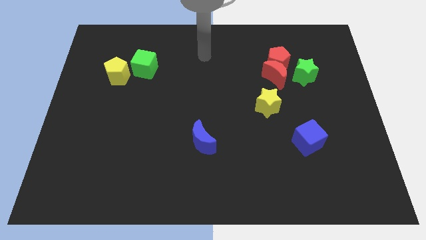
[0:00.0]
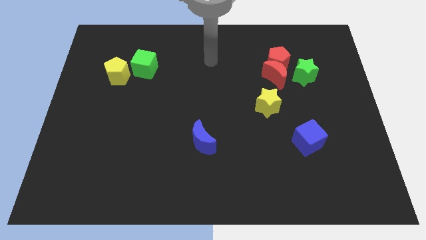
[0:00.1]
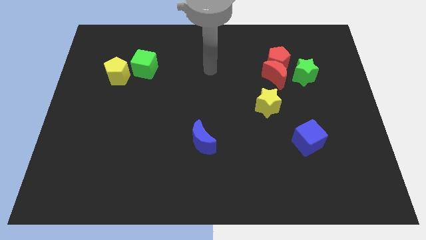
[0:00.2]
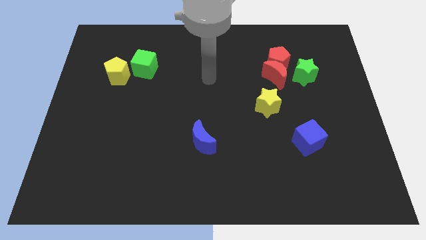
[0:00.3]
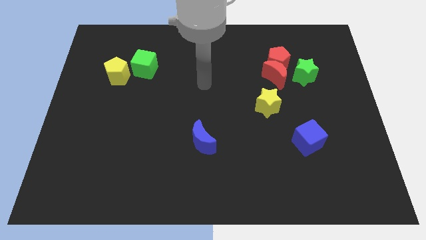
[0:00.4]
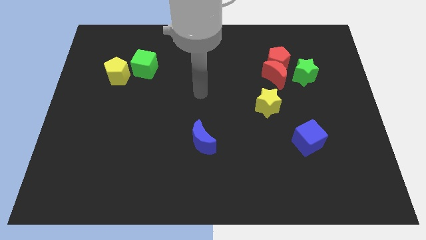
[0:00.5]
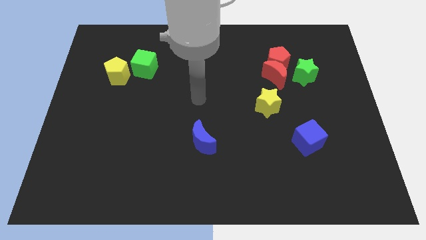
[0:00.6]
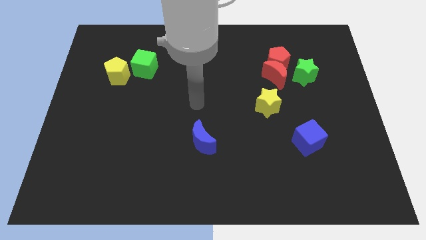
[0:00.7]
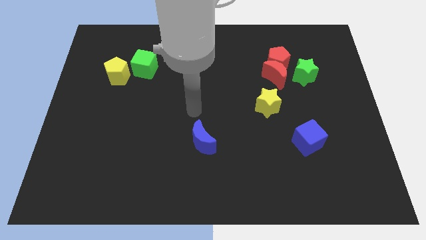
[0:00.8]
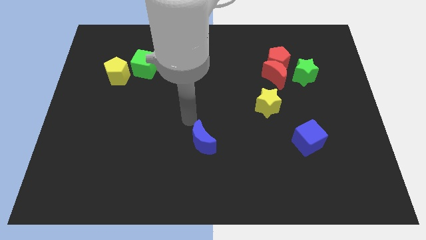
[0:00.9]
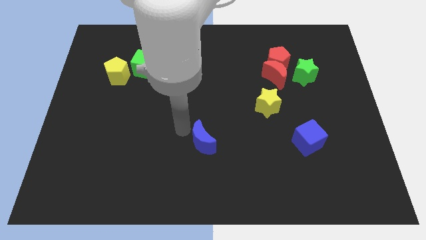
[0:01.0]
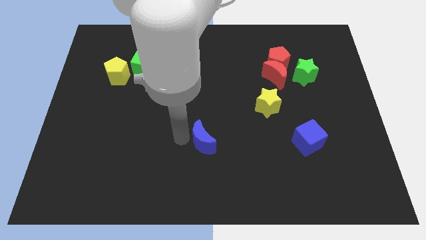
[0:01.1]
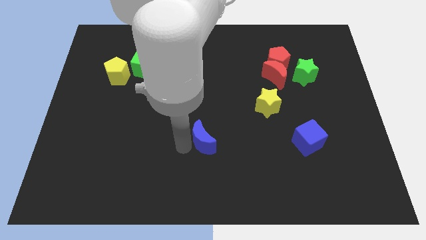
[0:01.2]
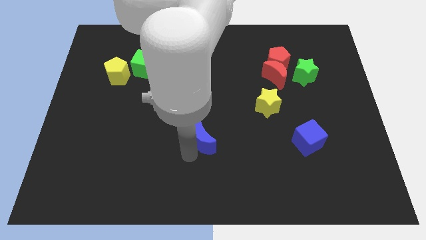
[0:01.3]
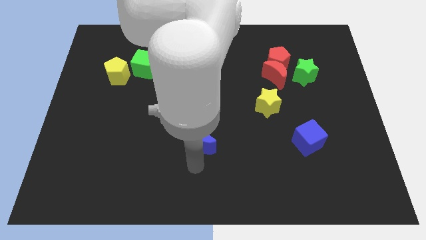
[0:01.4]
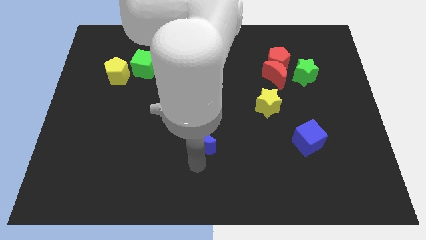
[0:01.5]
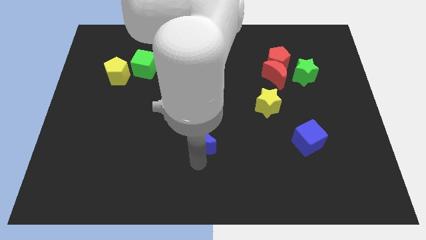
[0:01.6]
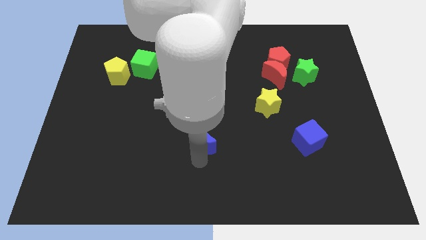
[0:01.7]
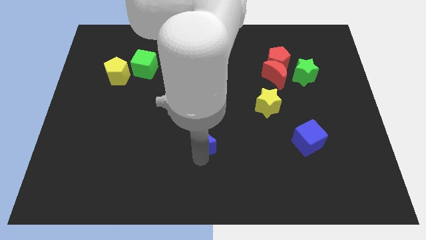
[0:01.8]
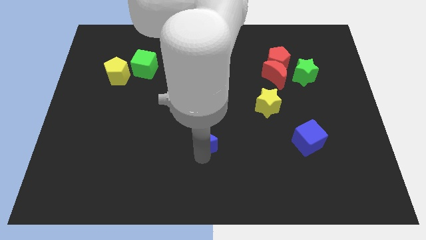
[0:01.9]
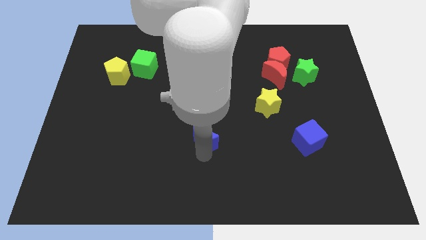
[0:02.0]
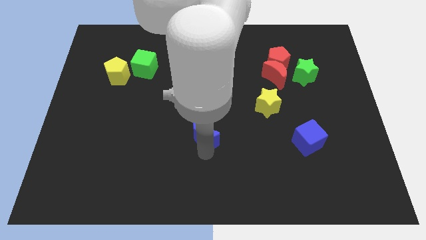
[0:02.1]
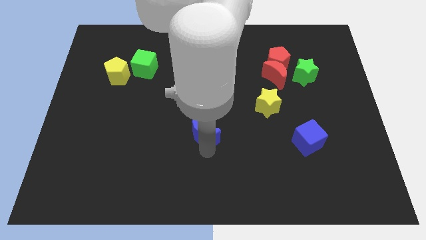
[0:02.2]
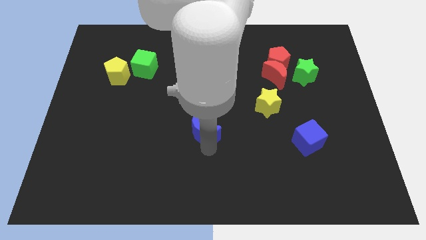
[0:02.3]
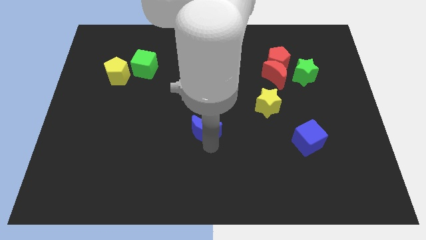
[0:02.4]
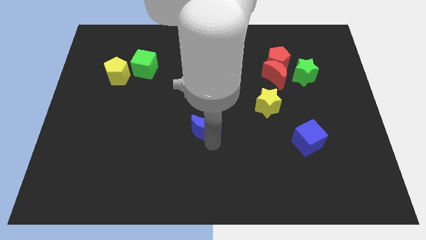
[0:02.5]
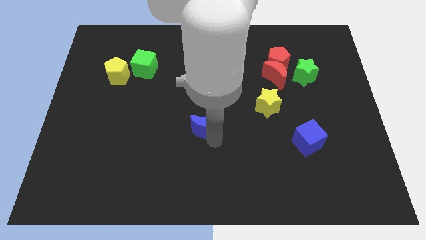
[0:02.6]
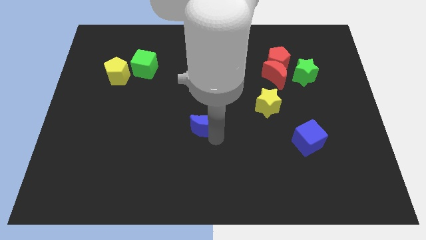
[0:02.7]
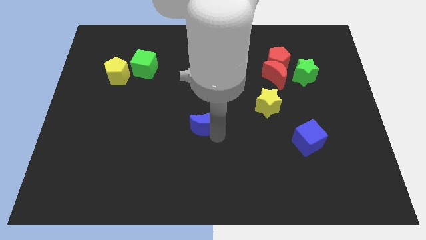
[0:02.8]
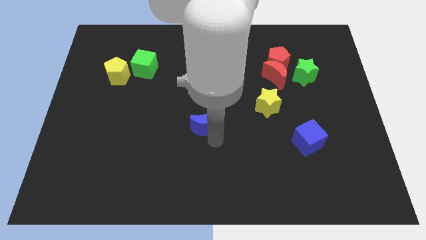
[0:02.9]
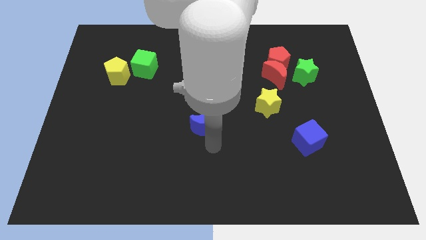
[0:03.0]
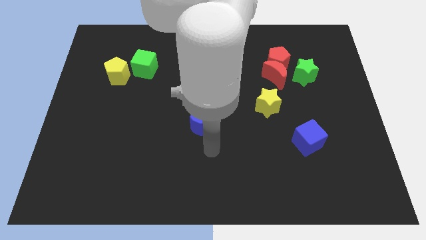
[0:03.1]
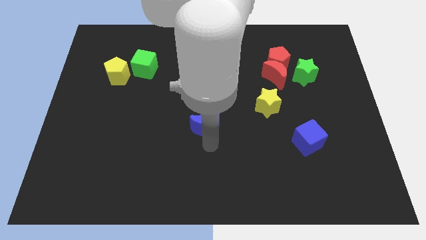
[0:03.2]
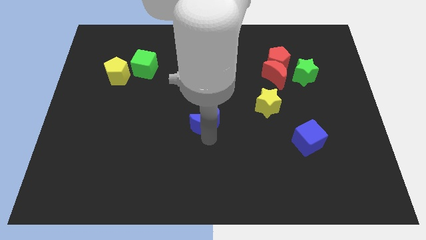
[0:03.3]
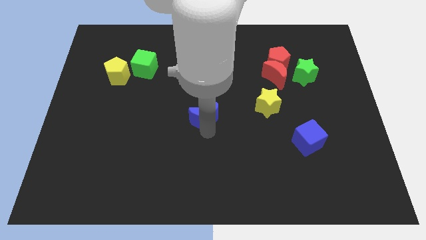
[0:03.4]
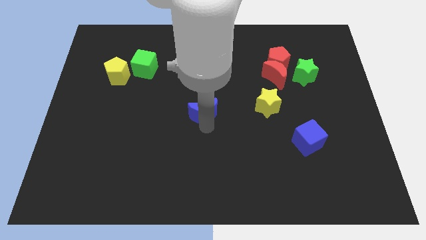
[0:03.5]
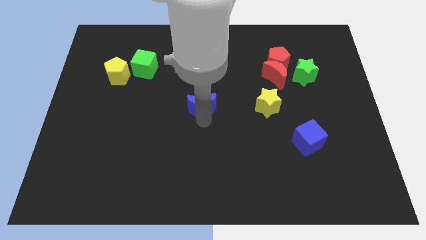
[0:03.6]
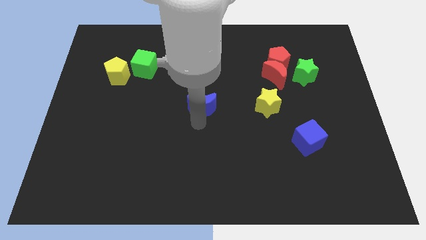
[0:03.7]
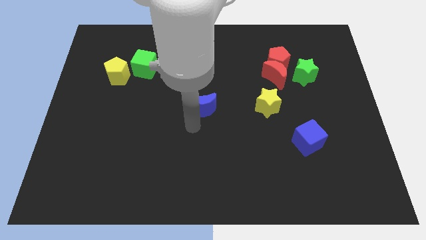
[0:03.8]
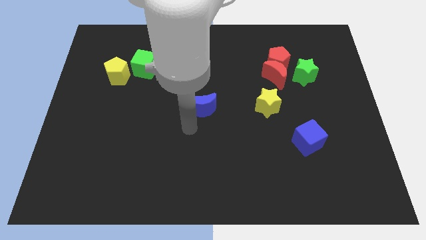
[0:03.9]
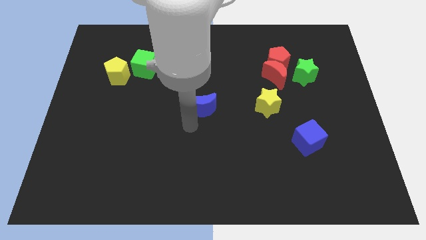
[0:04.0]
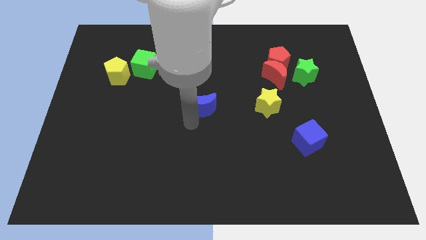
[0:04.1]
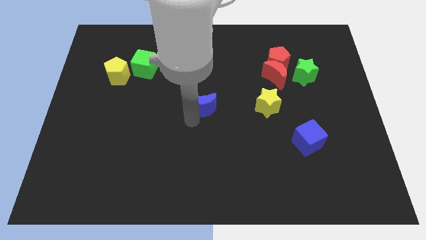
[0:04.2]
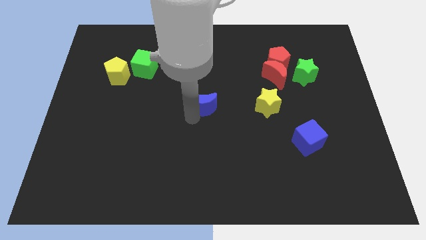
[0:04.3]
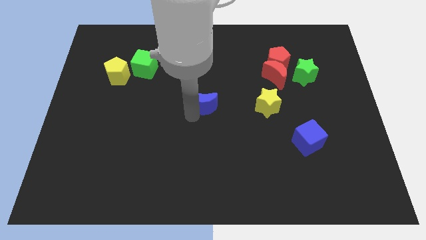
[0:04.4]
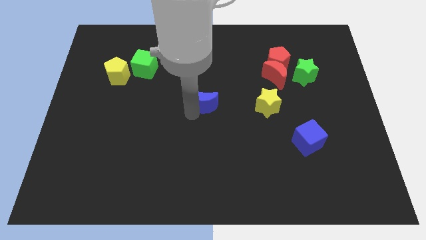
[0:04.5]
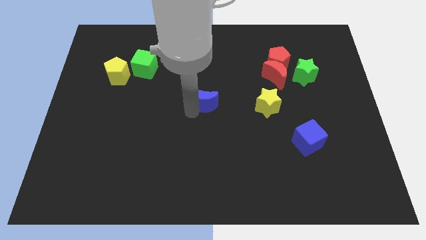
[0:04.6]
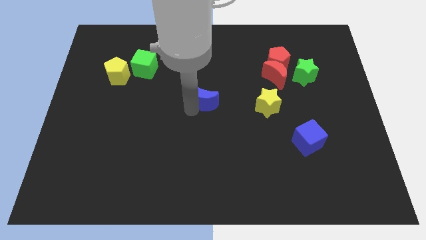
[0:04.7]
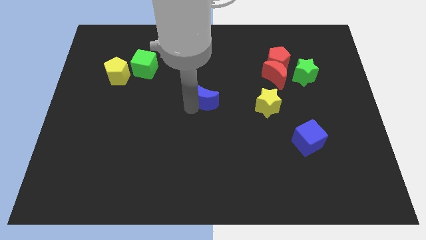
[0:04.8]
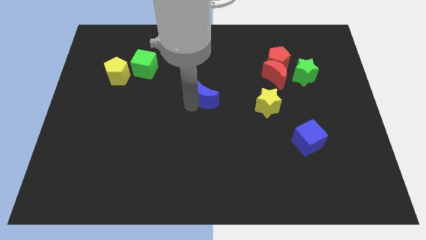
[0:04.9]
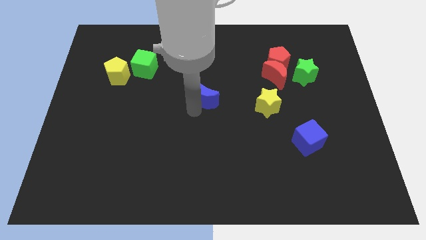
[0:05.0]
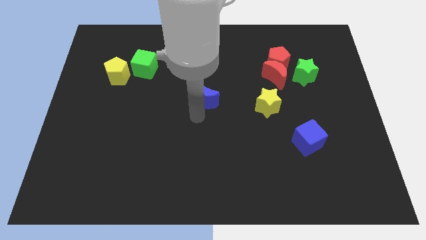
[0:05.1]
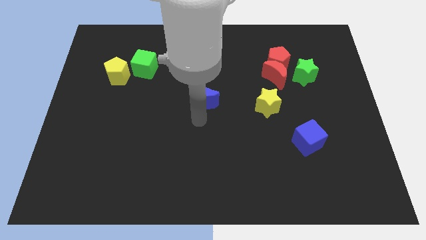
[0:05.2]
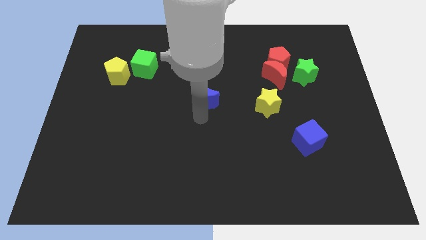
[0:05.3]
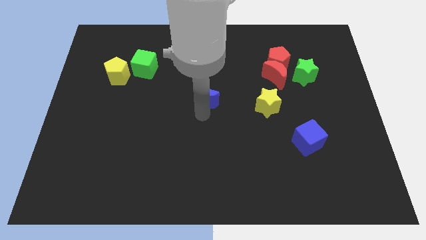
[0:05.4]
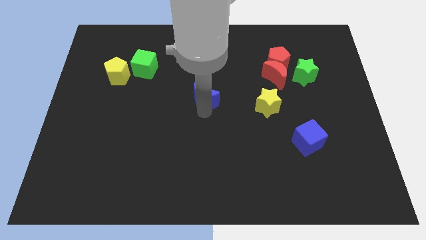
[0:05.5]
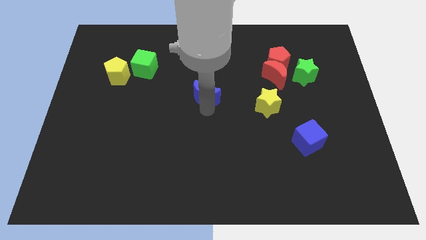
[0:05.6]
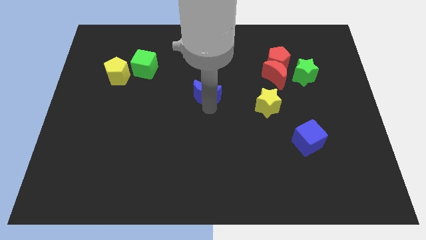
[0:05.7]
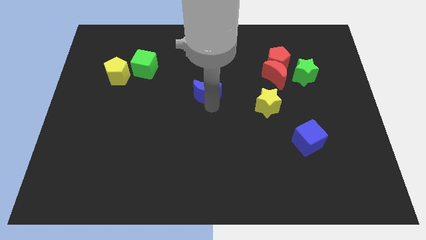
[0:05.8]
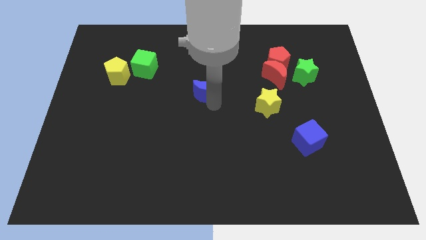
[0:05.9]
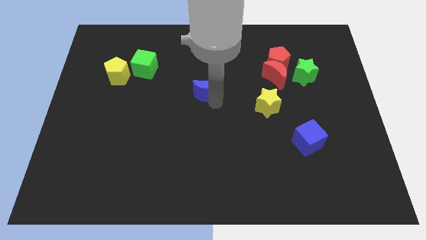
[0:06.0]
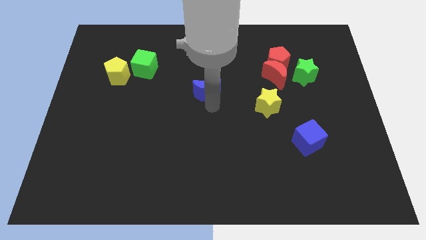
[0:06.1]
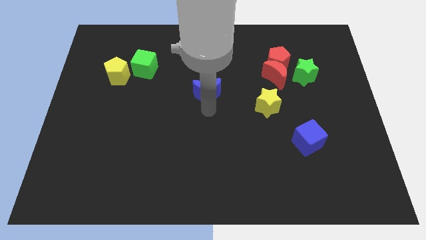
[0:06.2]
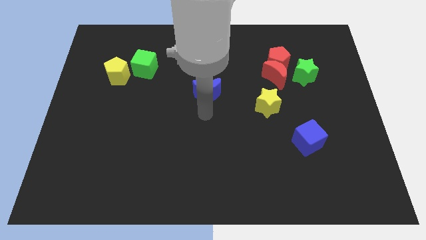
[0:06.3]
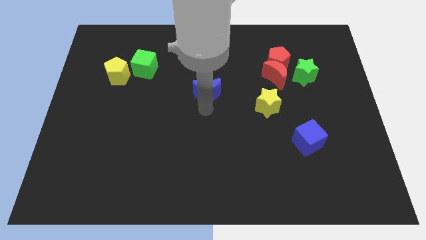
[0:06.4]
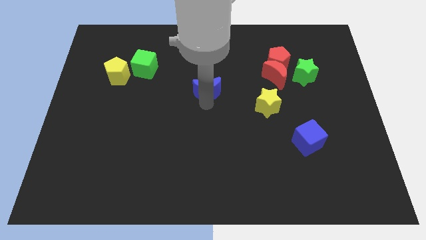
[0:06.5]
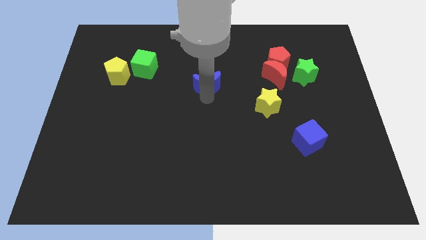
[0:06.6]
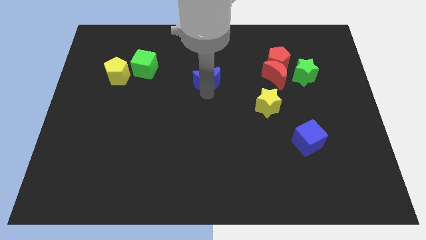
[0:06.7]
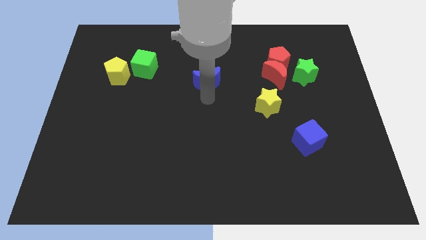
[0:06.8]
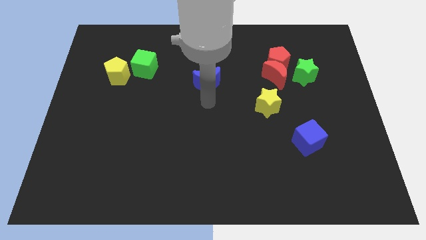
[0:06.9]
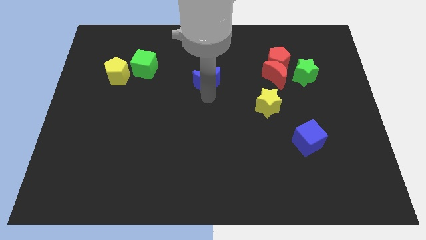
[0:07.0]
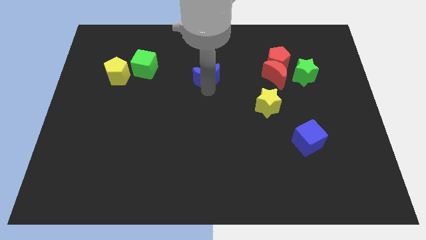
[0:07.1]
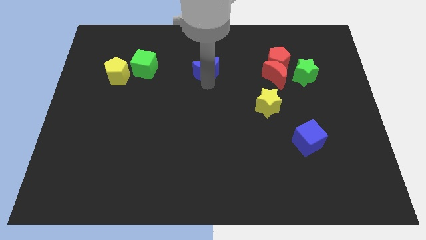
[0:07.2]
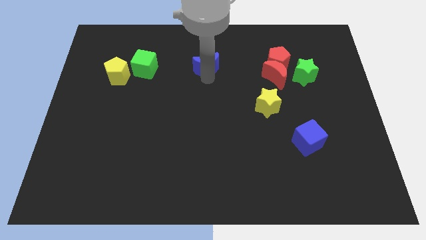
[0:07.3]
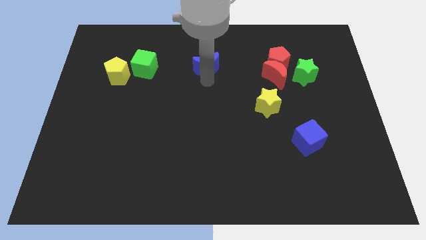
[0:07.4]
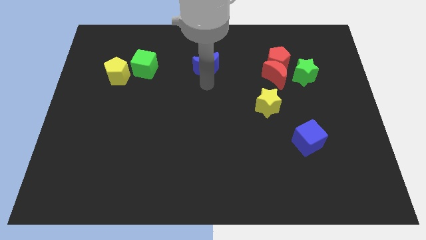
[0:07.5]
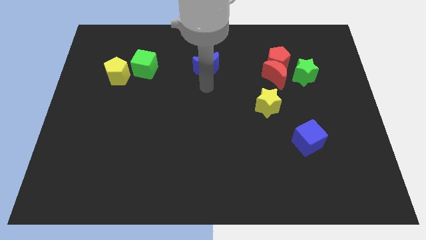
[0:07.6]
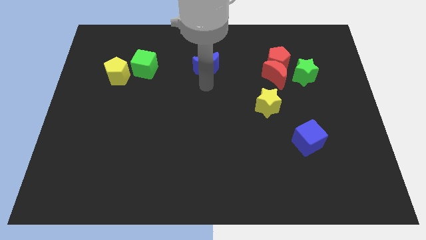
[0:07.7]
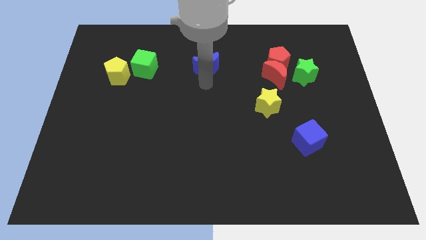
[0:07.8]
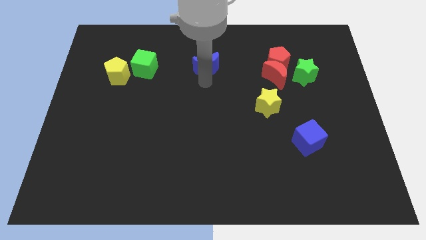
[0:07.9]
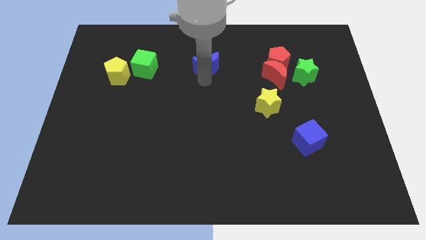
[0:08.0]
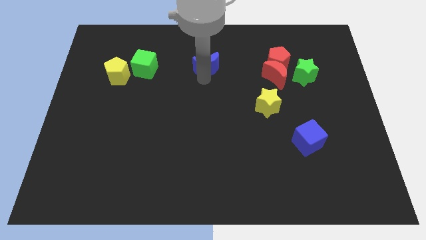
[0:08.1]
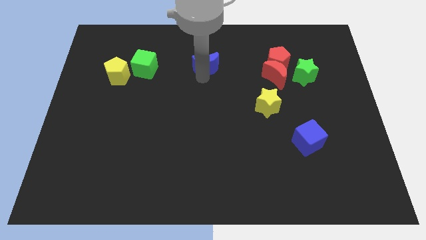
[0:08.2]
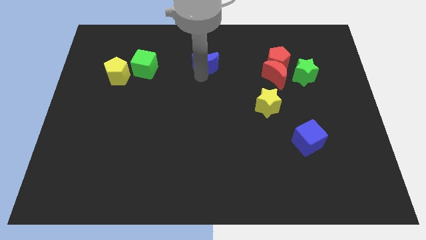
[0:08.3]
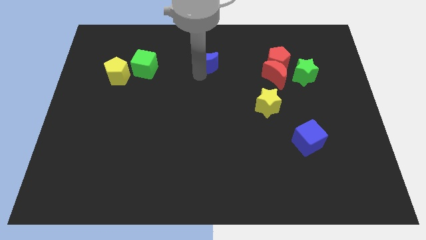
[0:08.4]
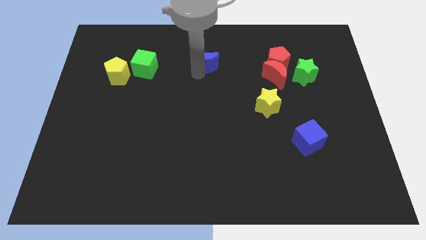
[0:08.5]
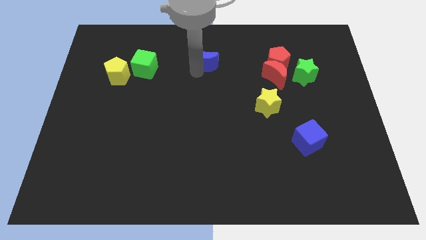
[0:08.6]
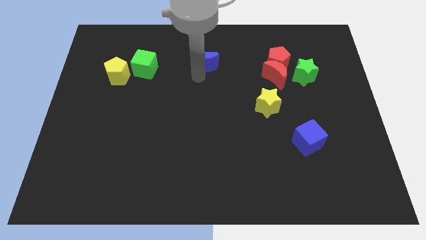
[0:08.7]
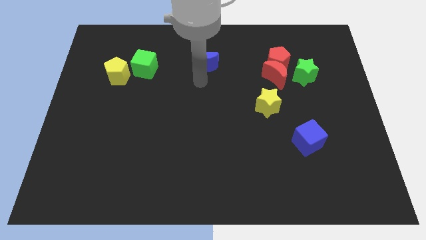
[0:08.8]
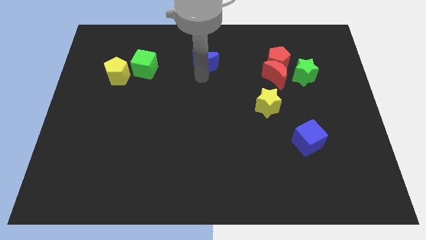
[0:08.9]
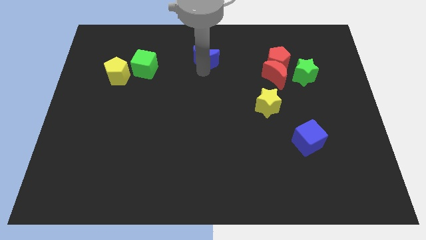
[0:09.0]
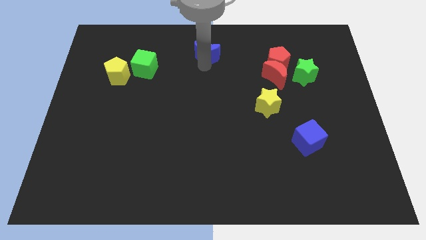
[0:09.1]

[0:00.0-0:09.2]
slide the blue moon to the towards your base
